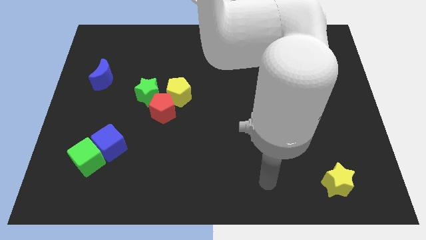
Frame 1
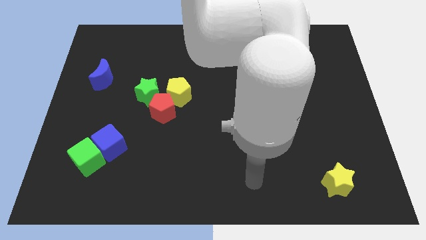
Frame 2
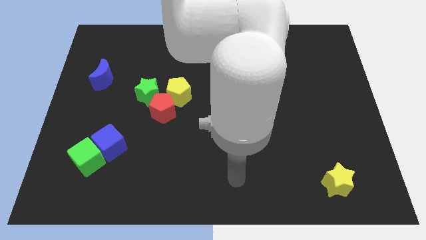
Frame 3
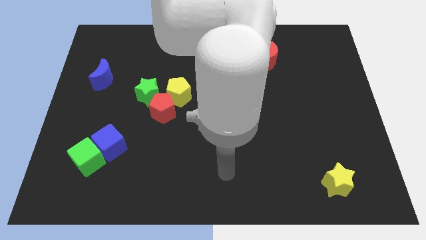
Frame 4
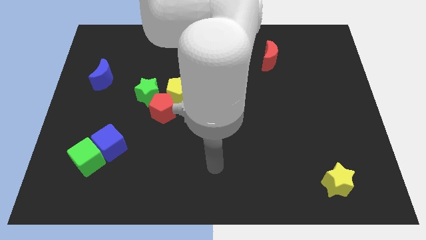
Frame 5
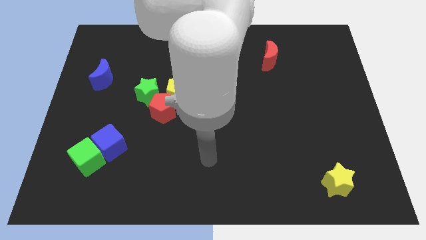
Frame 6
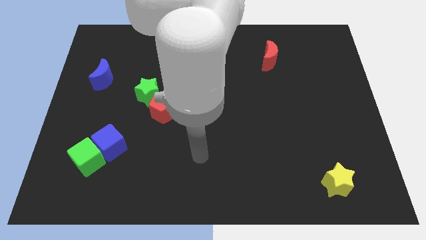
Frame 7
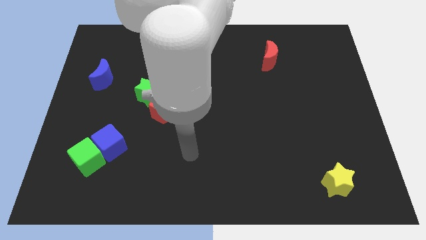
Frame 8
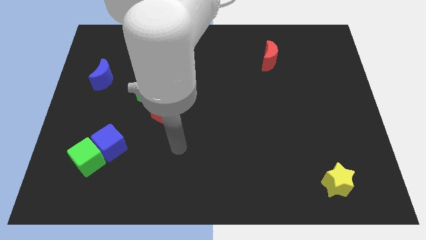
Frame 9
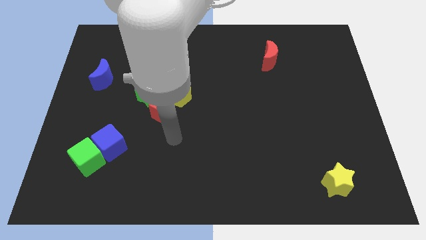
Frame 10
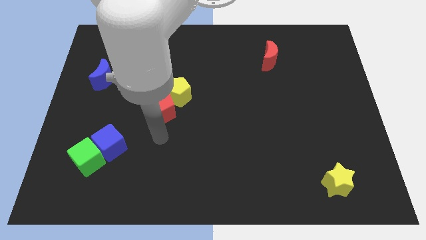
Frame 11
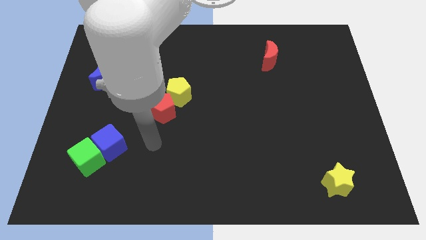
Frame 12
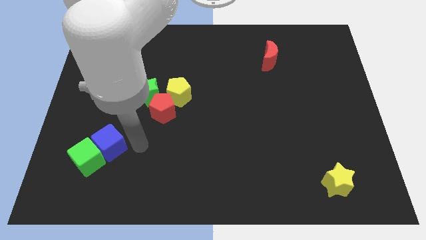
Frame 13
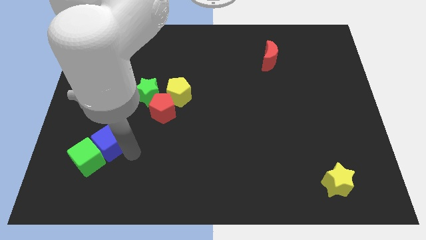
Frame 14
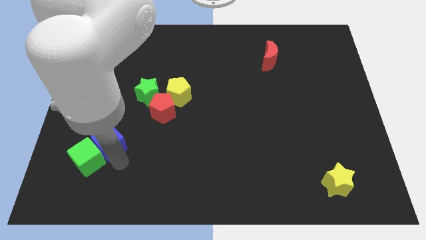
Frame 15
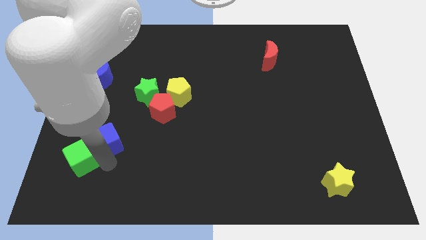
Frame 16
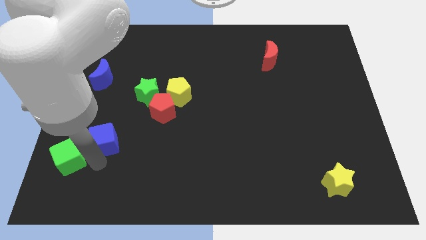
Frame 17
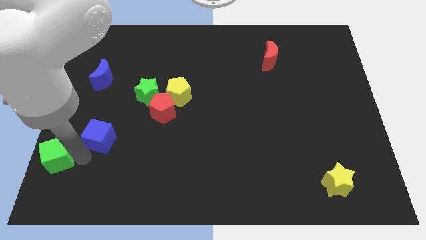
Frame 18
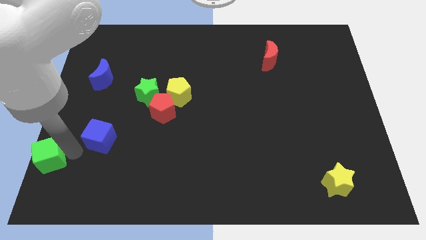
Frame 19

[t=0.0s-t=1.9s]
pull the blue cube apart from the green cube

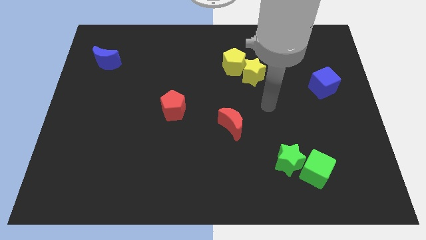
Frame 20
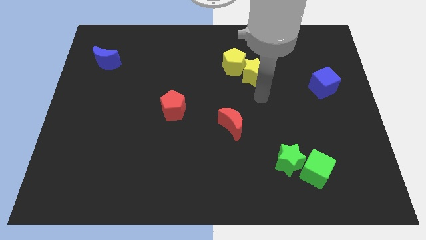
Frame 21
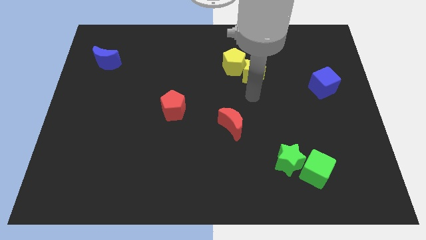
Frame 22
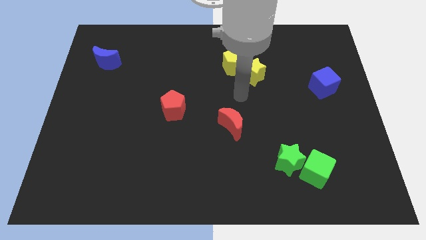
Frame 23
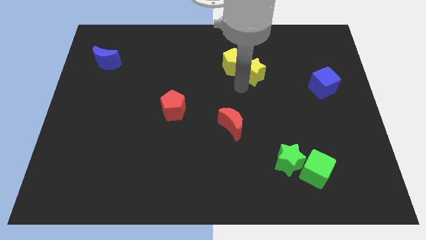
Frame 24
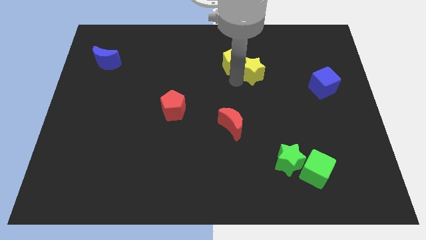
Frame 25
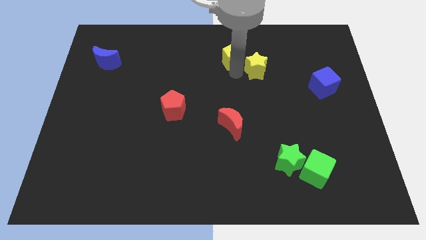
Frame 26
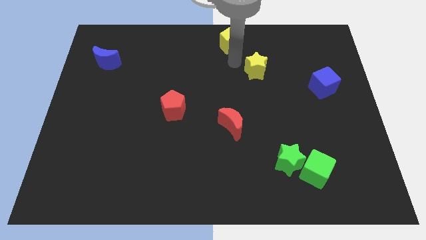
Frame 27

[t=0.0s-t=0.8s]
pull the yellow star apart from the yellow pentagon

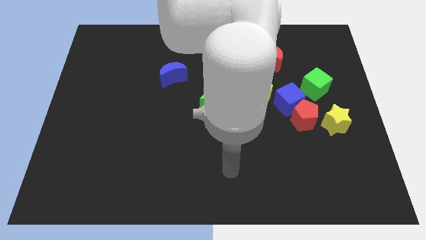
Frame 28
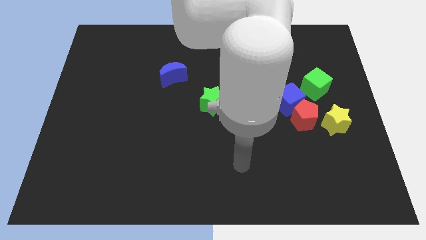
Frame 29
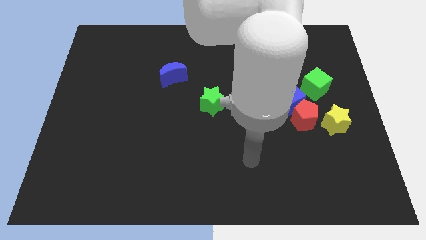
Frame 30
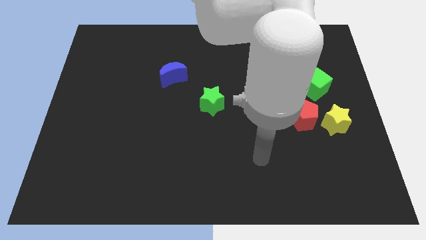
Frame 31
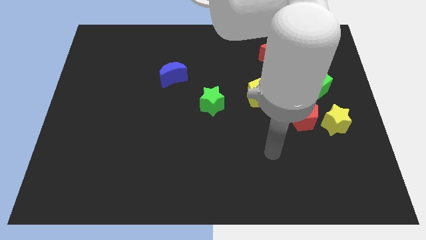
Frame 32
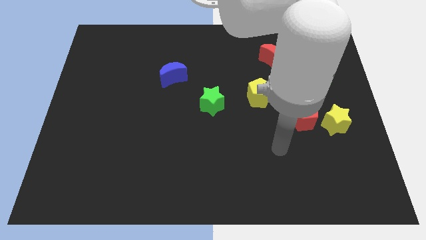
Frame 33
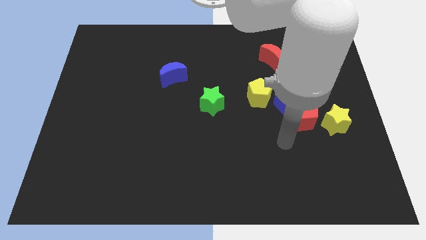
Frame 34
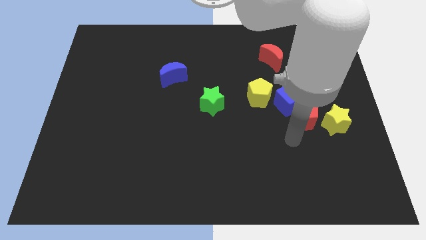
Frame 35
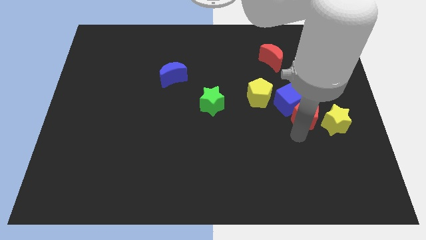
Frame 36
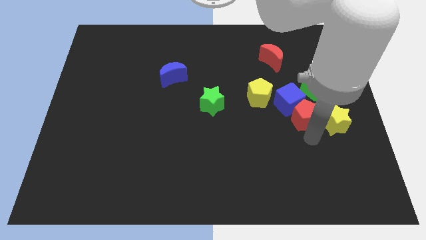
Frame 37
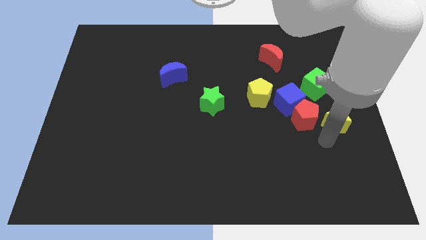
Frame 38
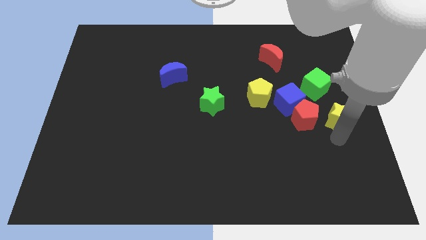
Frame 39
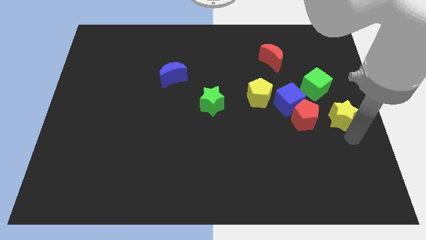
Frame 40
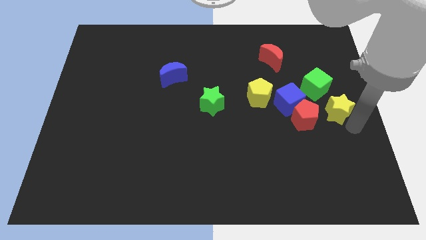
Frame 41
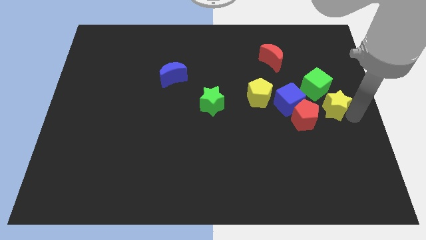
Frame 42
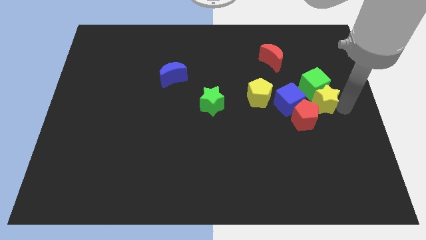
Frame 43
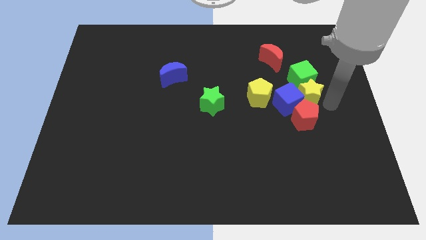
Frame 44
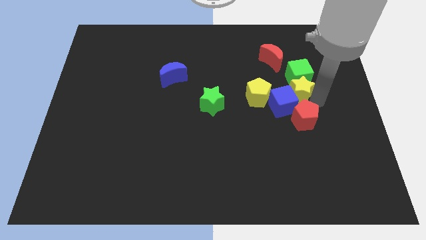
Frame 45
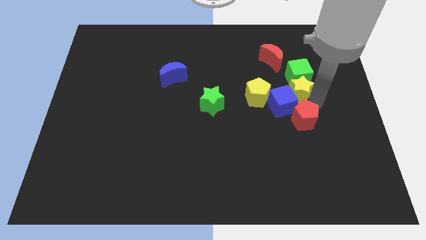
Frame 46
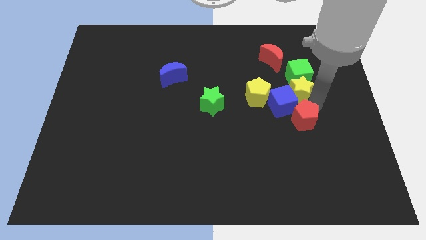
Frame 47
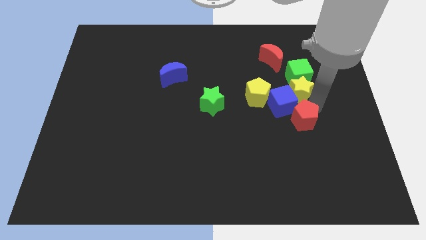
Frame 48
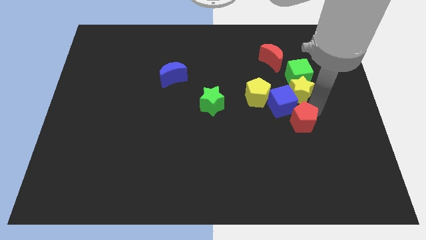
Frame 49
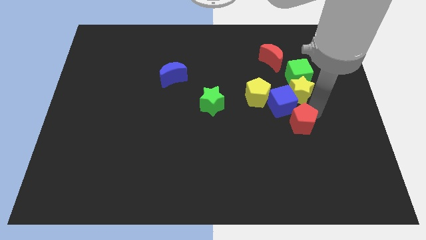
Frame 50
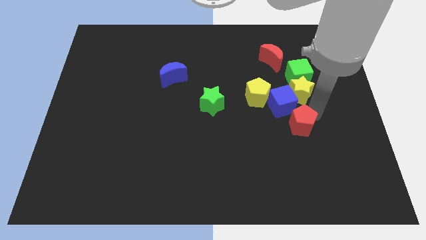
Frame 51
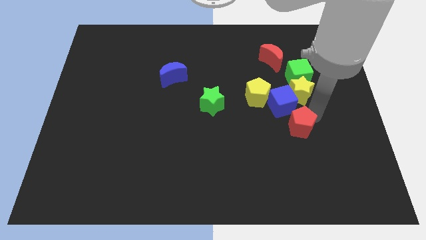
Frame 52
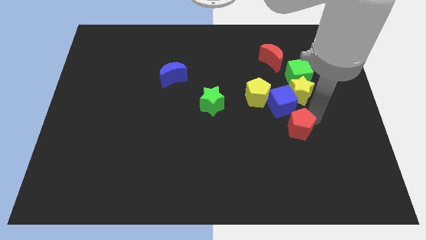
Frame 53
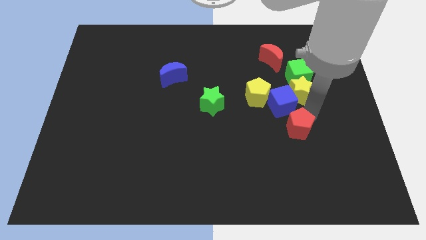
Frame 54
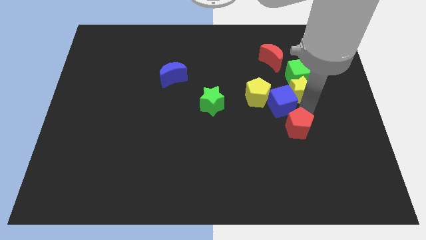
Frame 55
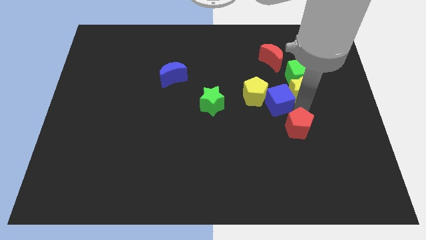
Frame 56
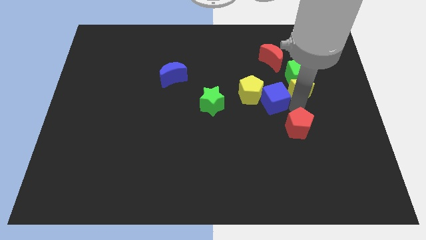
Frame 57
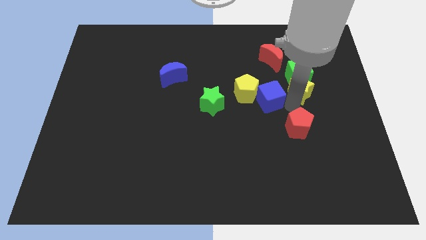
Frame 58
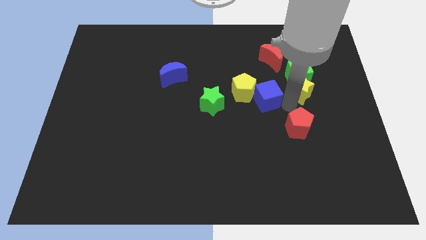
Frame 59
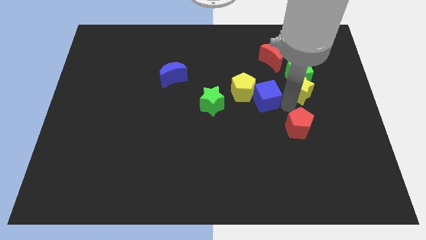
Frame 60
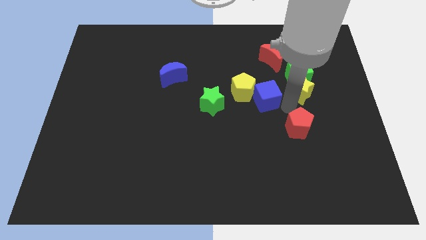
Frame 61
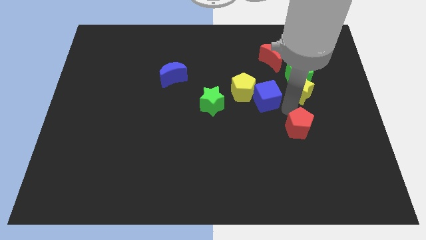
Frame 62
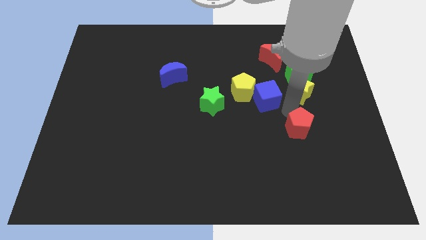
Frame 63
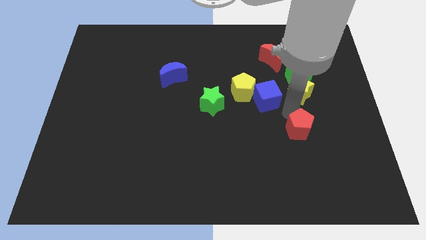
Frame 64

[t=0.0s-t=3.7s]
pull the red pentagon apart from the blue cube and yellow star

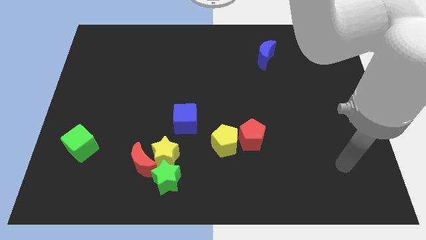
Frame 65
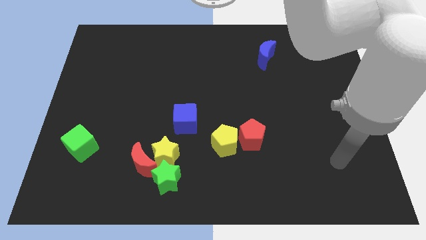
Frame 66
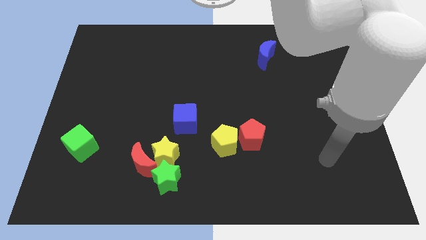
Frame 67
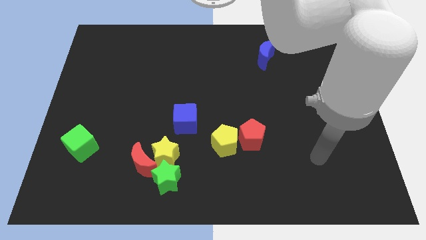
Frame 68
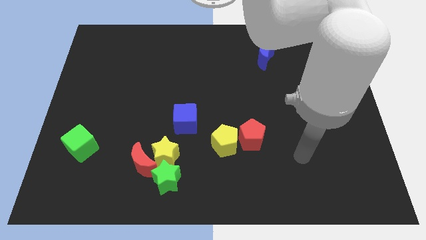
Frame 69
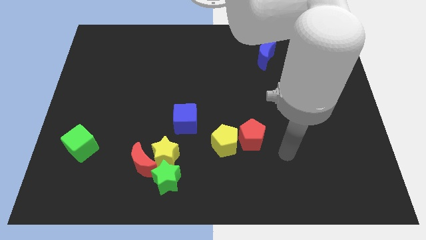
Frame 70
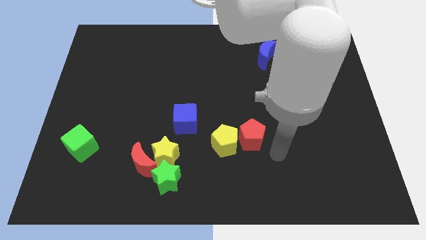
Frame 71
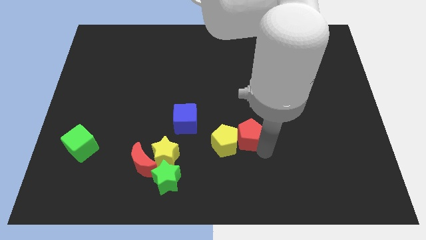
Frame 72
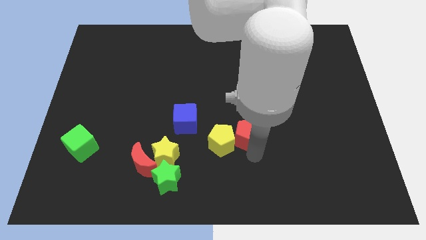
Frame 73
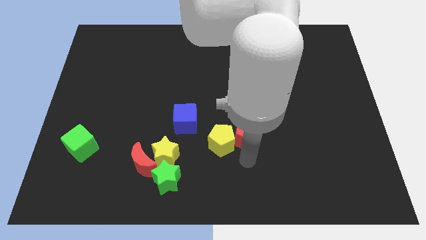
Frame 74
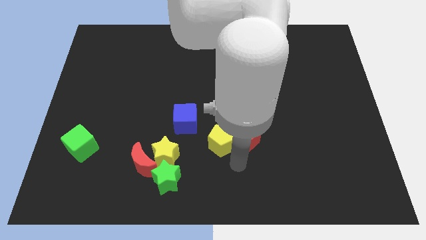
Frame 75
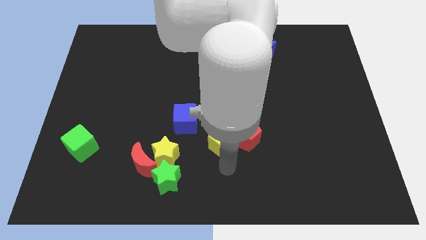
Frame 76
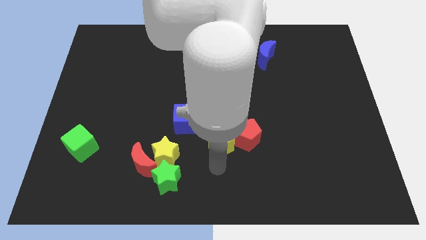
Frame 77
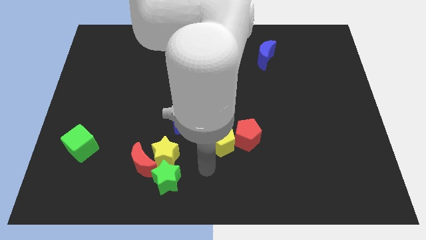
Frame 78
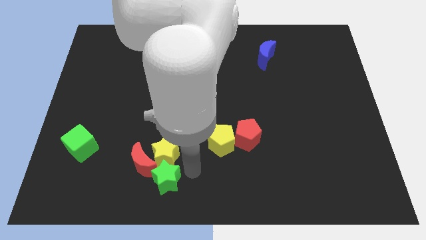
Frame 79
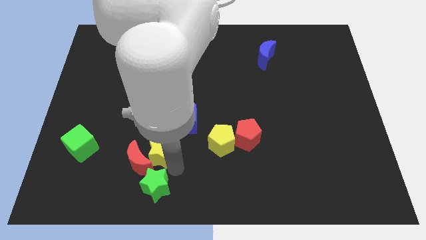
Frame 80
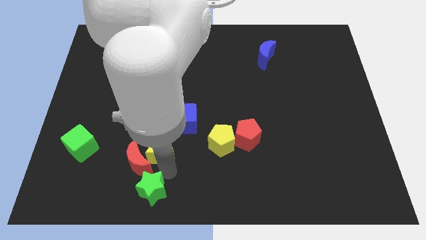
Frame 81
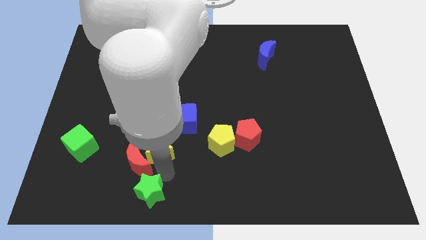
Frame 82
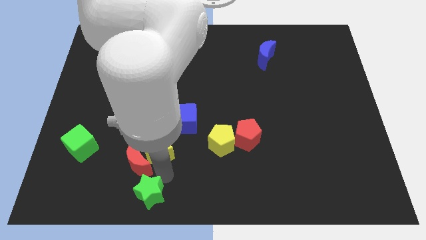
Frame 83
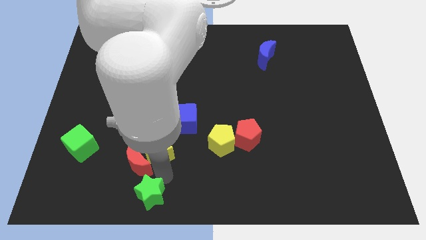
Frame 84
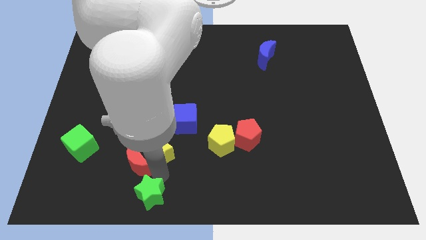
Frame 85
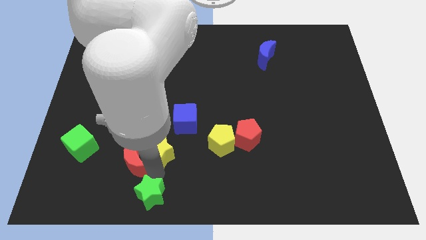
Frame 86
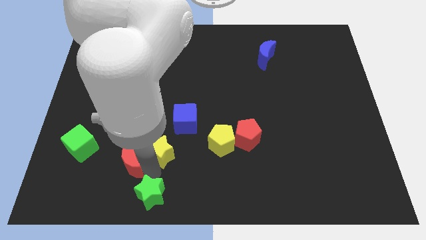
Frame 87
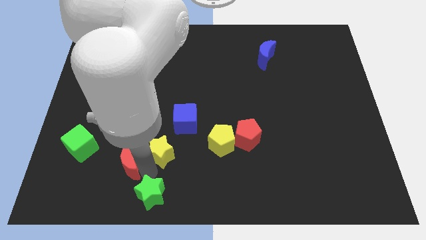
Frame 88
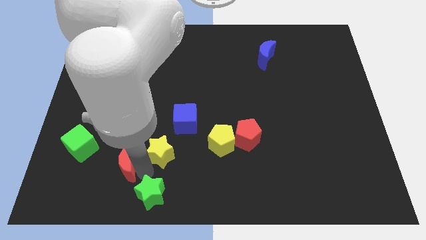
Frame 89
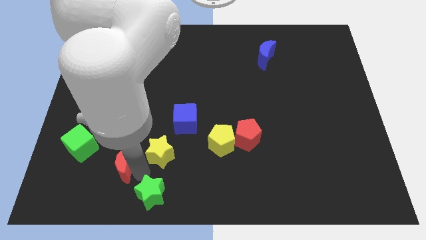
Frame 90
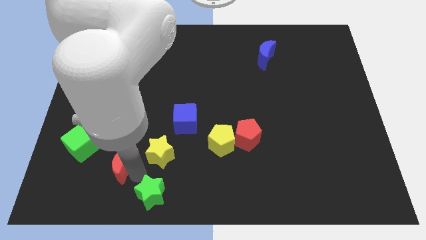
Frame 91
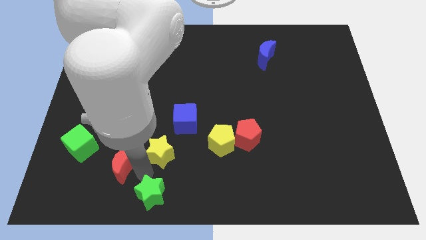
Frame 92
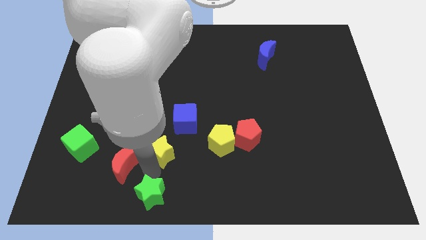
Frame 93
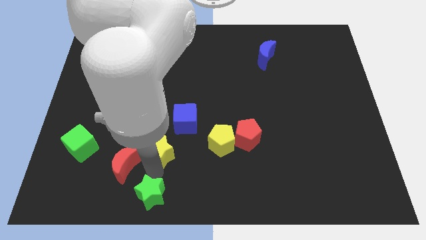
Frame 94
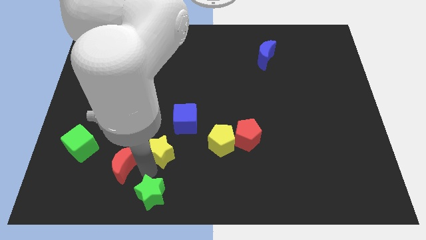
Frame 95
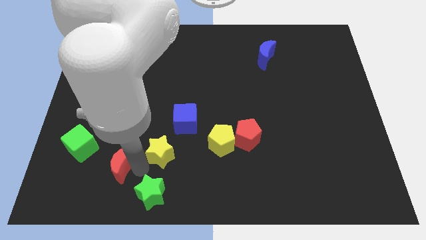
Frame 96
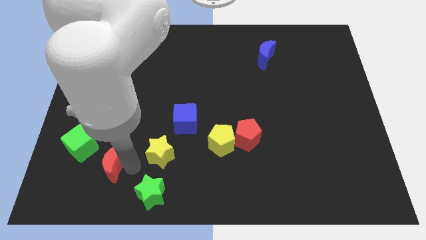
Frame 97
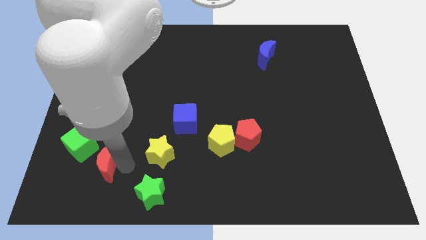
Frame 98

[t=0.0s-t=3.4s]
move the red moon away from the yellow star and green star
